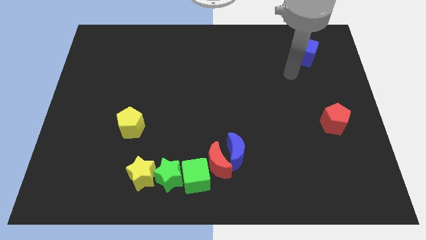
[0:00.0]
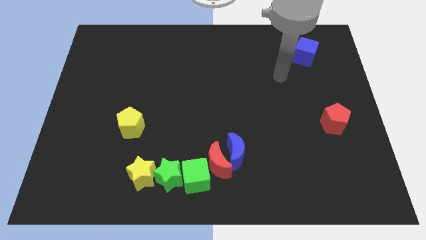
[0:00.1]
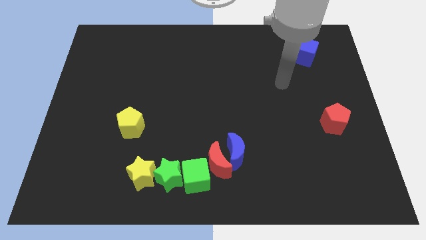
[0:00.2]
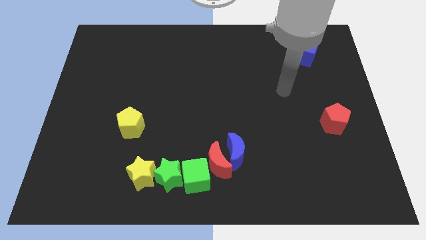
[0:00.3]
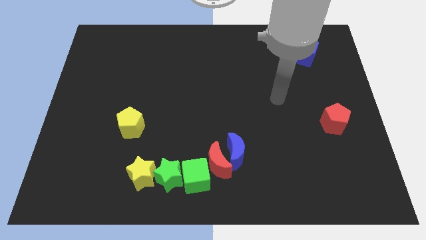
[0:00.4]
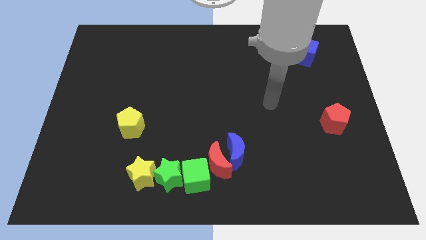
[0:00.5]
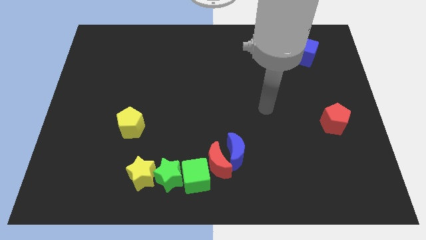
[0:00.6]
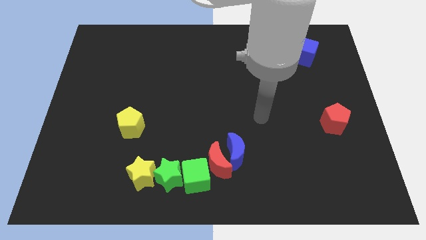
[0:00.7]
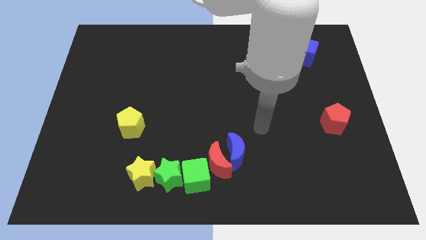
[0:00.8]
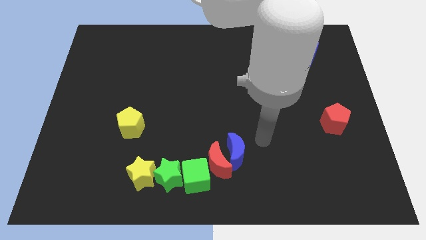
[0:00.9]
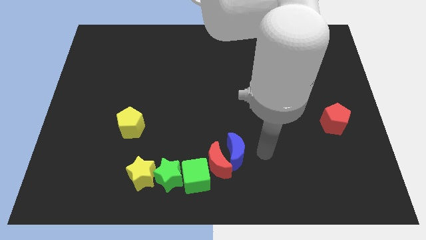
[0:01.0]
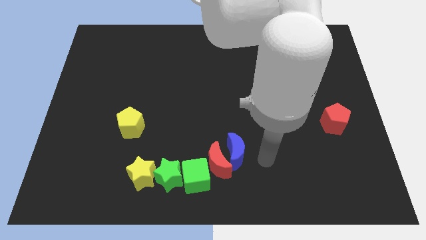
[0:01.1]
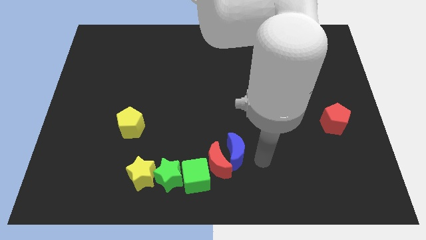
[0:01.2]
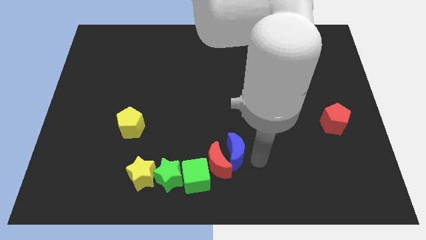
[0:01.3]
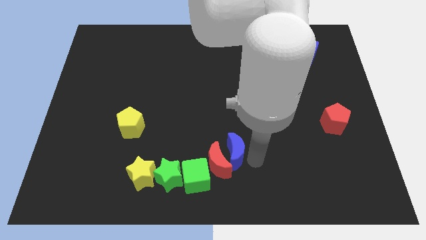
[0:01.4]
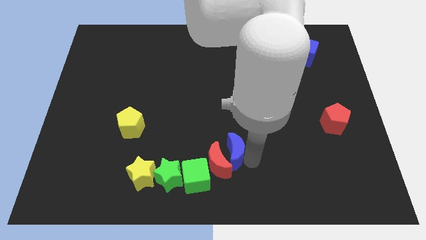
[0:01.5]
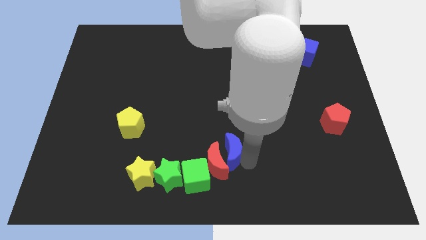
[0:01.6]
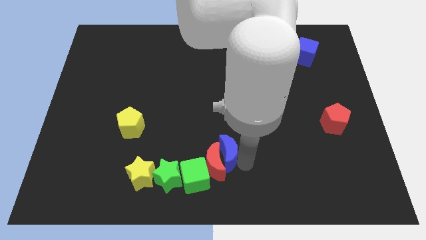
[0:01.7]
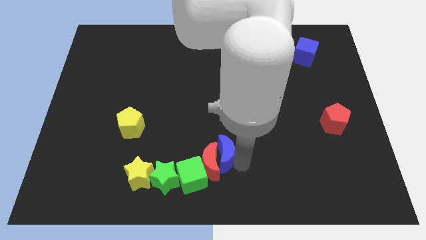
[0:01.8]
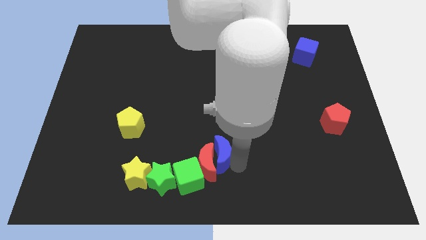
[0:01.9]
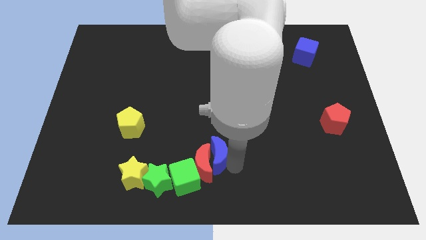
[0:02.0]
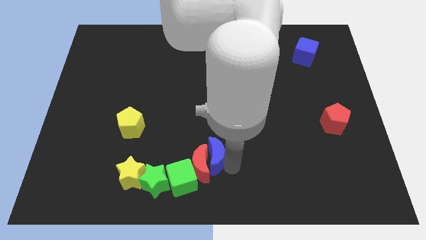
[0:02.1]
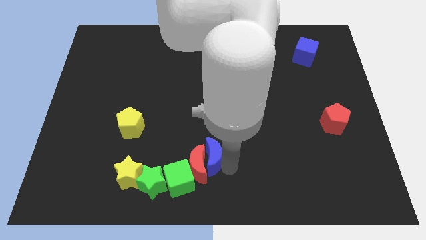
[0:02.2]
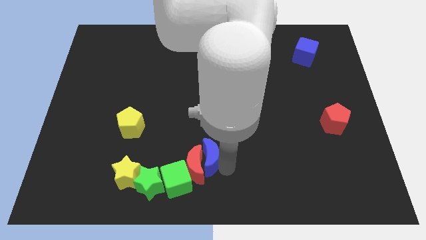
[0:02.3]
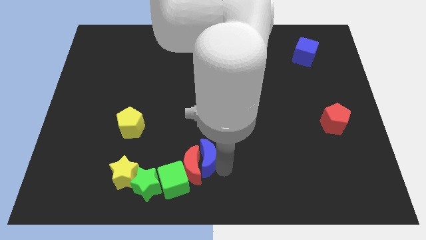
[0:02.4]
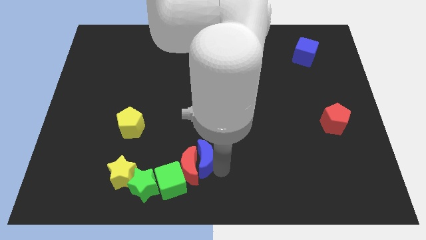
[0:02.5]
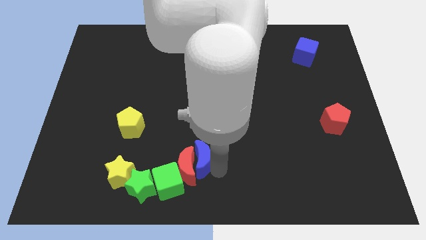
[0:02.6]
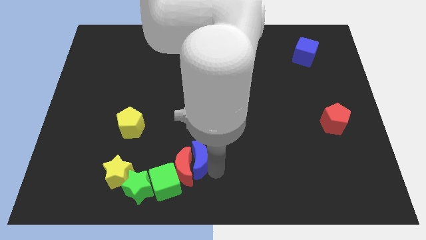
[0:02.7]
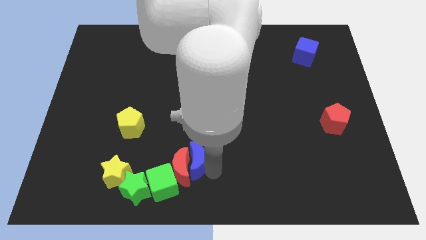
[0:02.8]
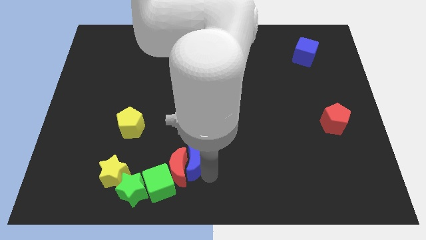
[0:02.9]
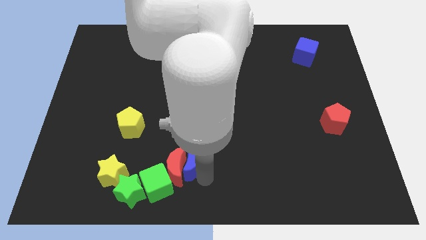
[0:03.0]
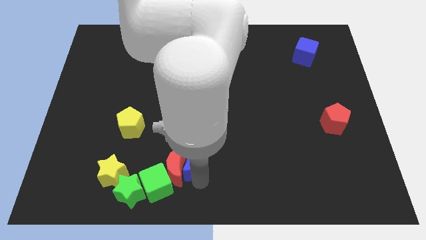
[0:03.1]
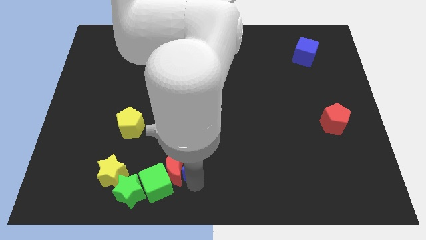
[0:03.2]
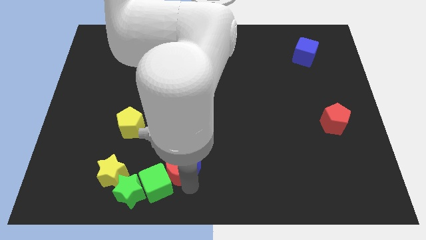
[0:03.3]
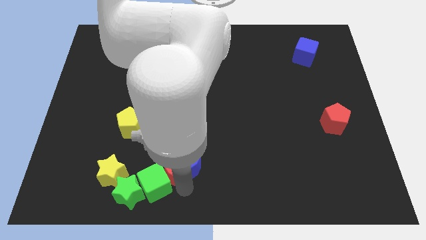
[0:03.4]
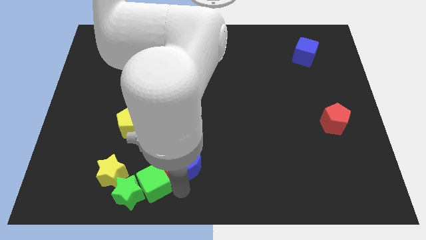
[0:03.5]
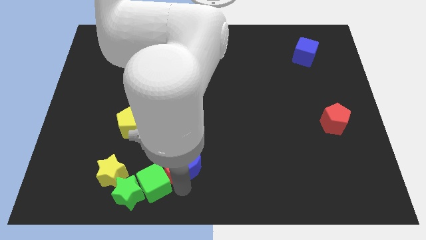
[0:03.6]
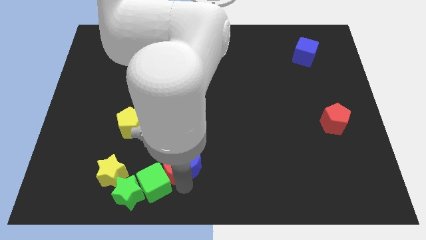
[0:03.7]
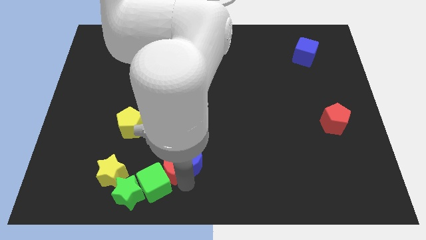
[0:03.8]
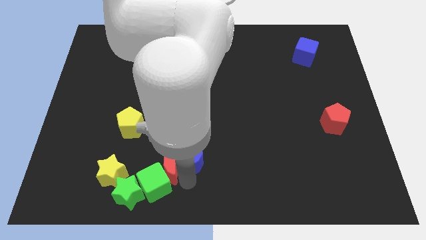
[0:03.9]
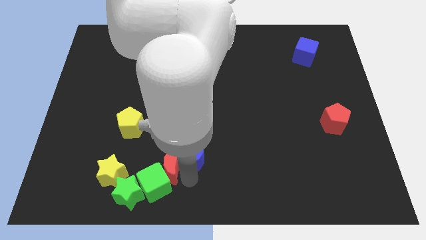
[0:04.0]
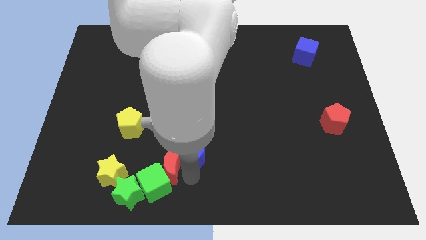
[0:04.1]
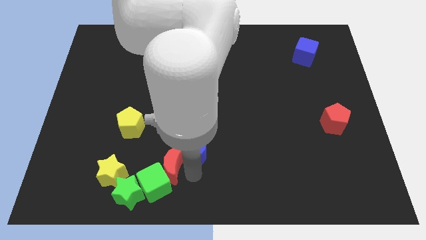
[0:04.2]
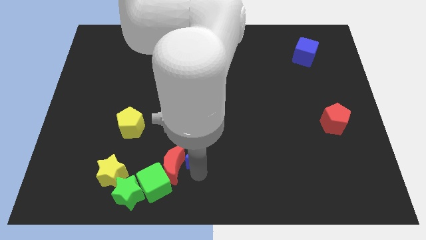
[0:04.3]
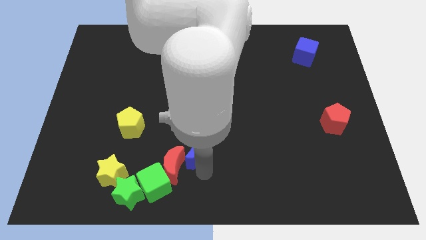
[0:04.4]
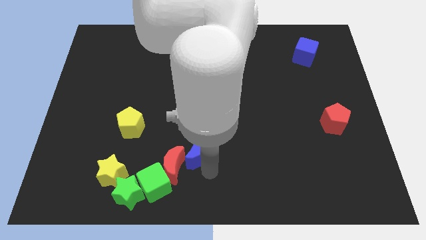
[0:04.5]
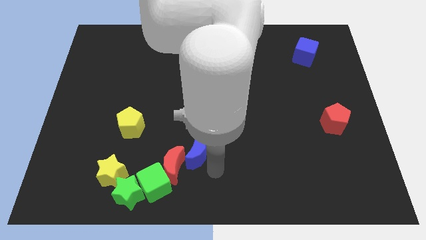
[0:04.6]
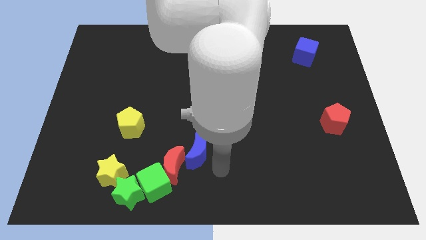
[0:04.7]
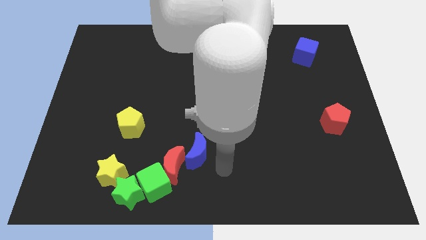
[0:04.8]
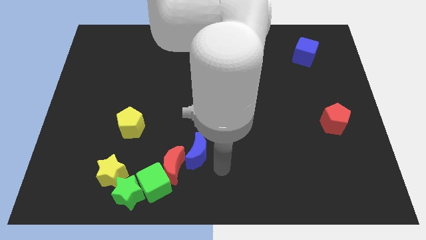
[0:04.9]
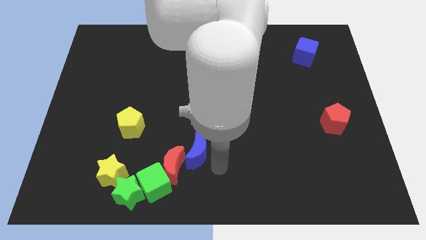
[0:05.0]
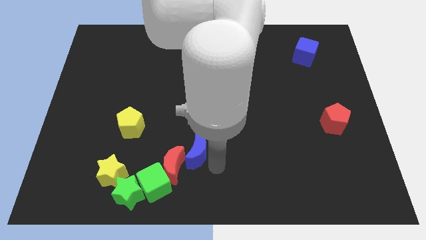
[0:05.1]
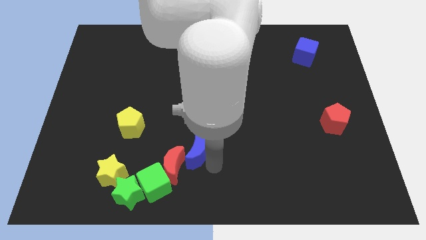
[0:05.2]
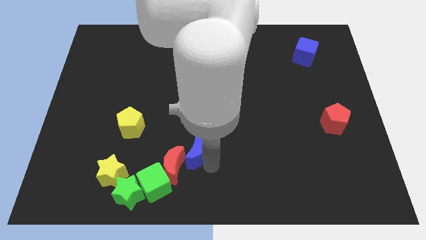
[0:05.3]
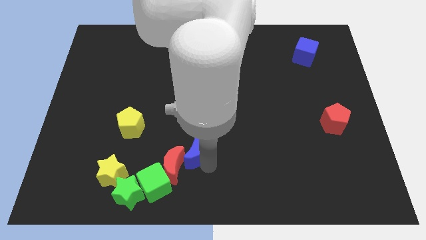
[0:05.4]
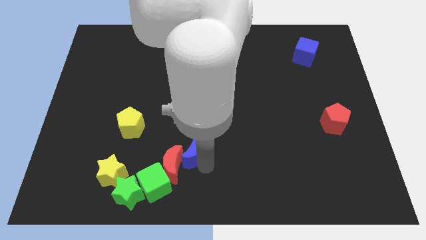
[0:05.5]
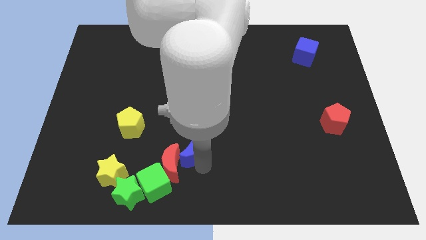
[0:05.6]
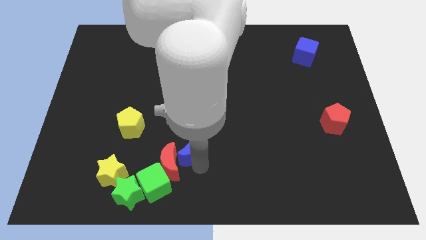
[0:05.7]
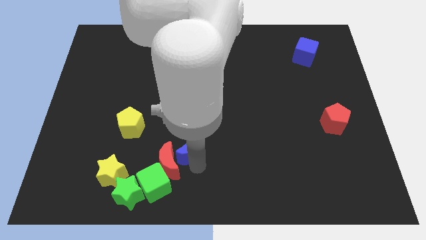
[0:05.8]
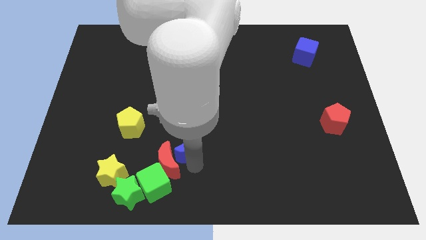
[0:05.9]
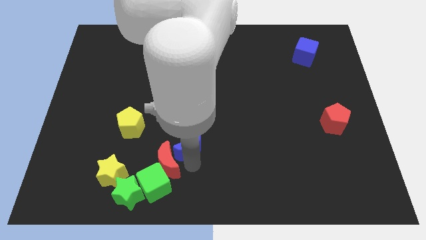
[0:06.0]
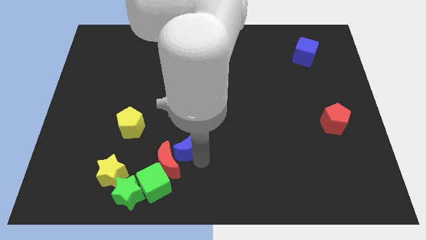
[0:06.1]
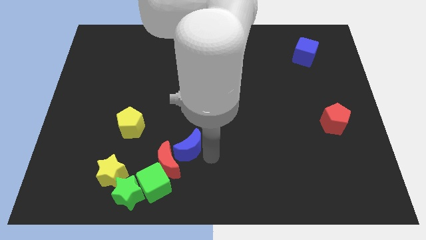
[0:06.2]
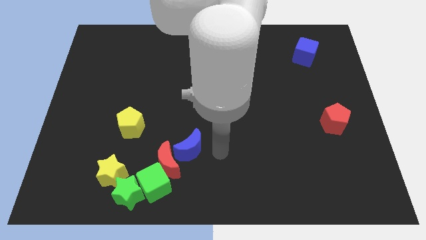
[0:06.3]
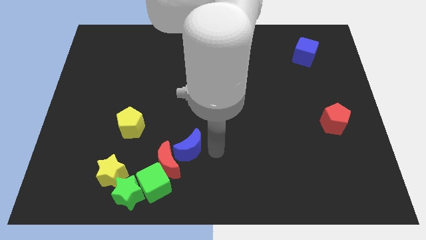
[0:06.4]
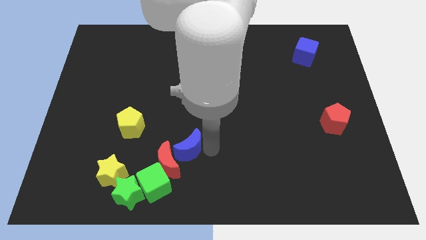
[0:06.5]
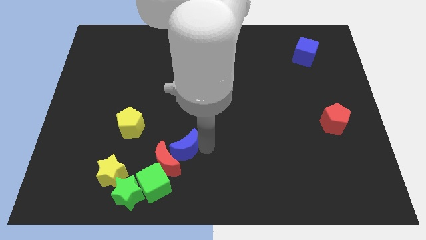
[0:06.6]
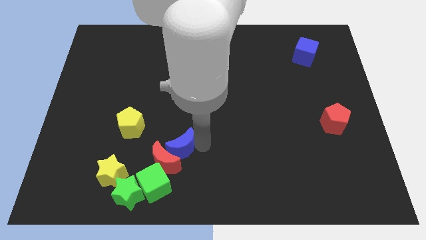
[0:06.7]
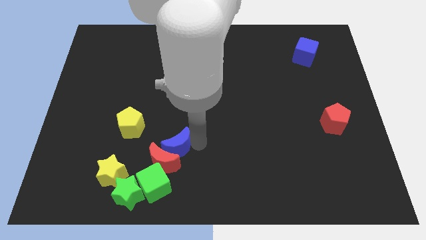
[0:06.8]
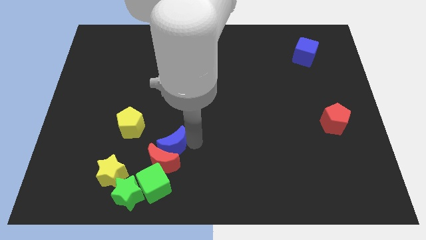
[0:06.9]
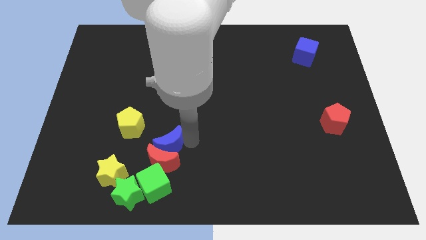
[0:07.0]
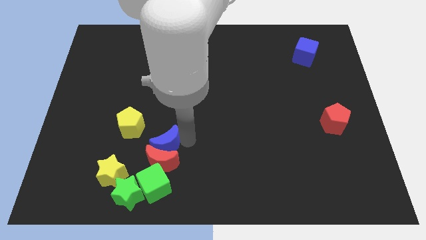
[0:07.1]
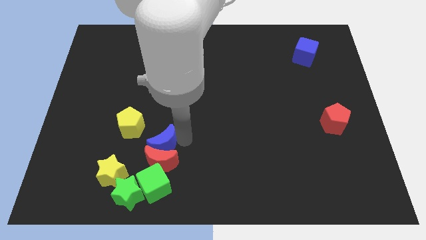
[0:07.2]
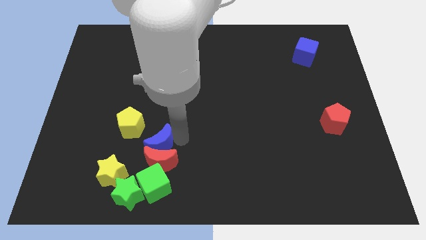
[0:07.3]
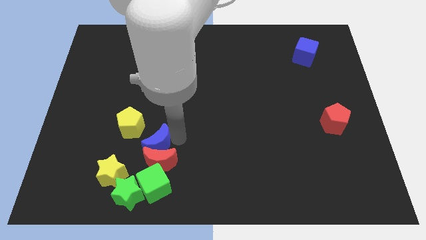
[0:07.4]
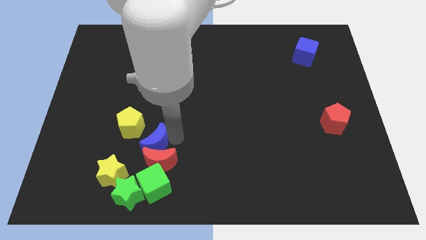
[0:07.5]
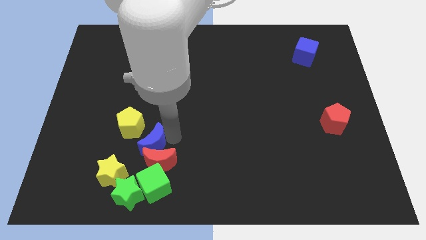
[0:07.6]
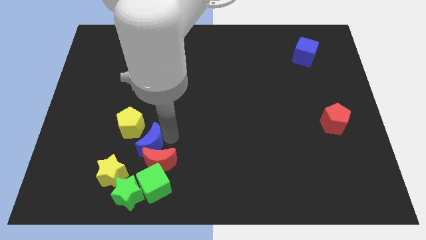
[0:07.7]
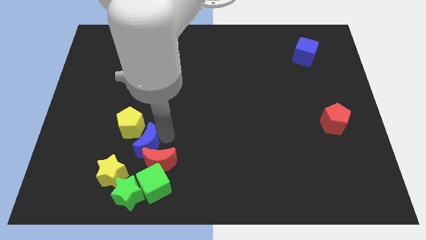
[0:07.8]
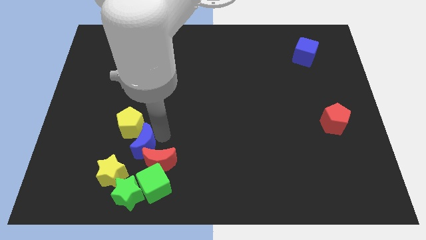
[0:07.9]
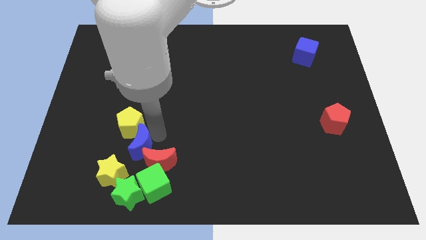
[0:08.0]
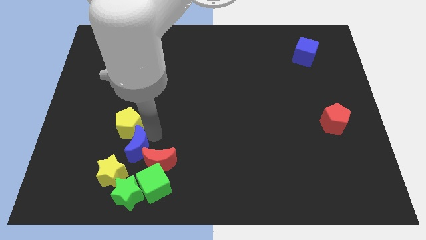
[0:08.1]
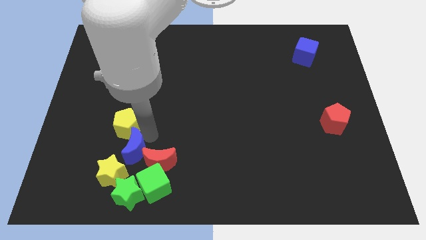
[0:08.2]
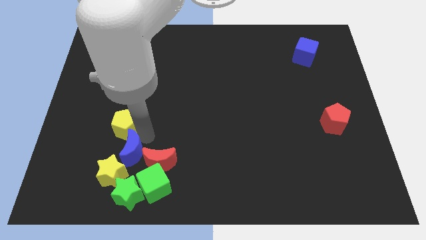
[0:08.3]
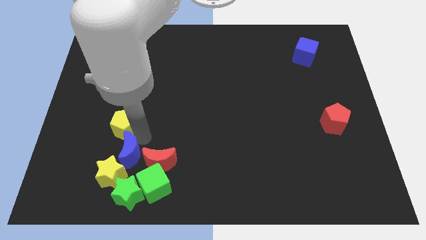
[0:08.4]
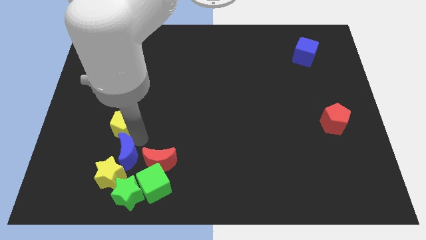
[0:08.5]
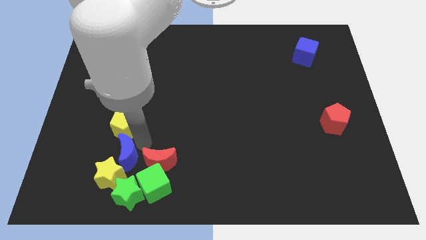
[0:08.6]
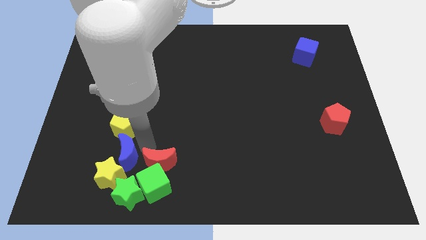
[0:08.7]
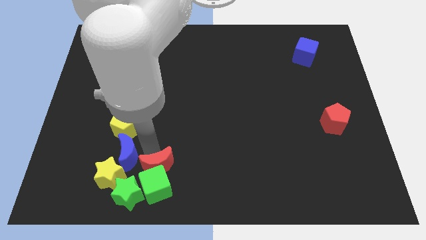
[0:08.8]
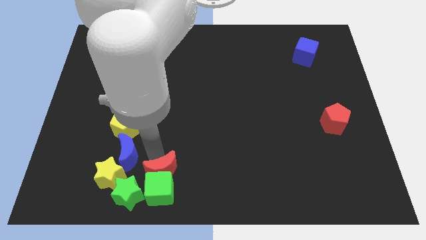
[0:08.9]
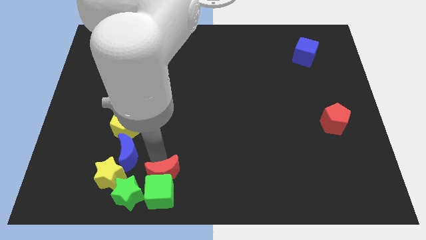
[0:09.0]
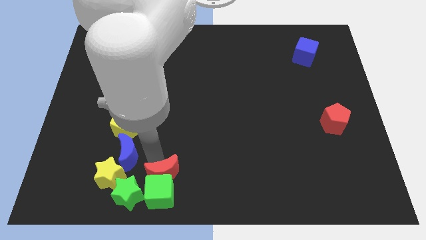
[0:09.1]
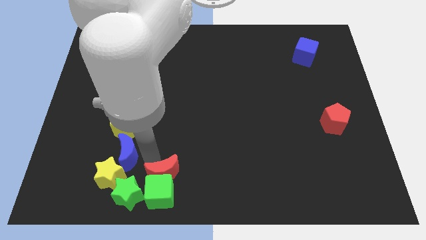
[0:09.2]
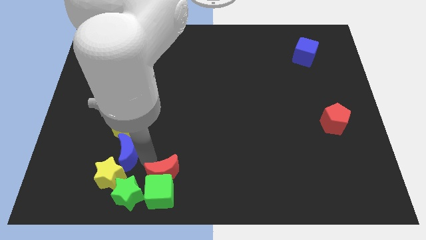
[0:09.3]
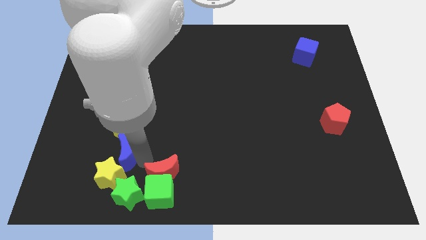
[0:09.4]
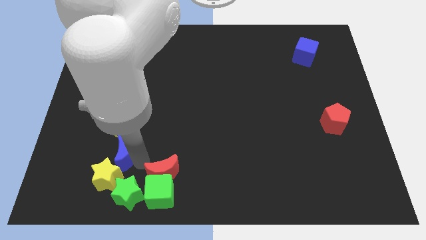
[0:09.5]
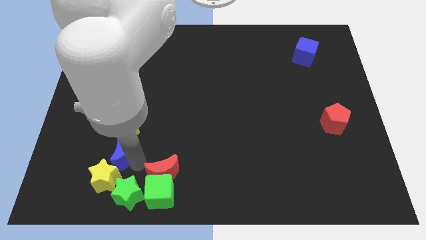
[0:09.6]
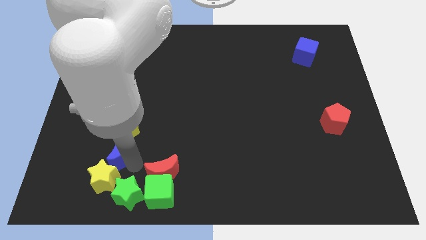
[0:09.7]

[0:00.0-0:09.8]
push the blue moon to the bottom left of the yellow pentagon
